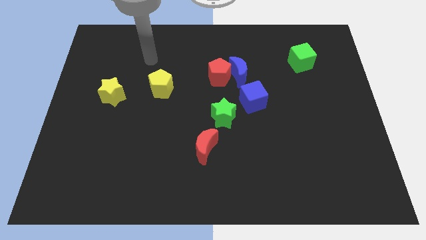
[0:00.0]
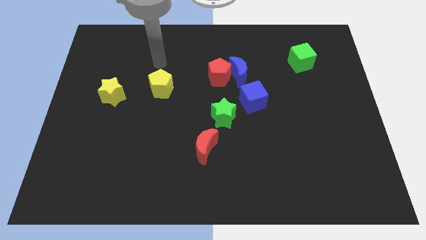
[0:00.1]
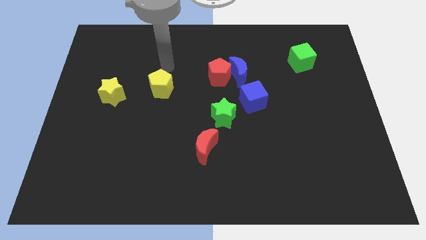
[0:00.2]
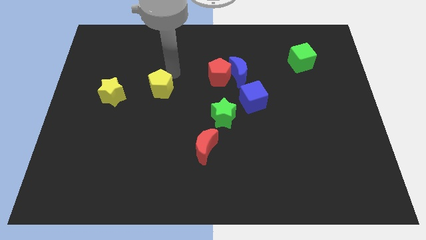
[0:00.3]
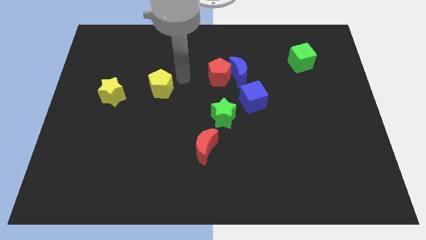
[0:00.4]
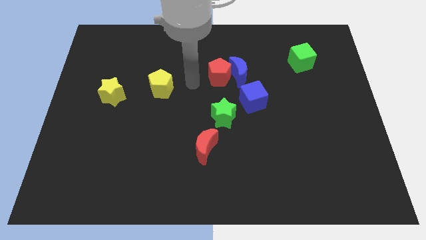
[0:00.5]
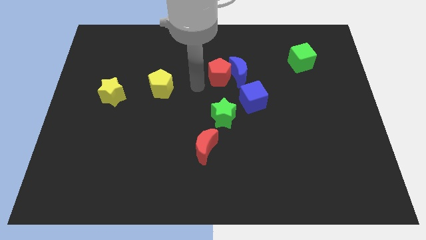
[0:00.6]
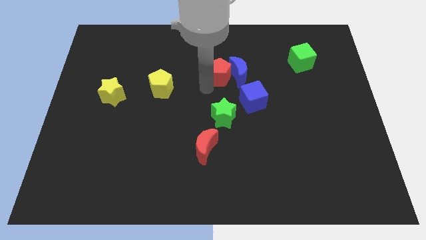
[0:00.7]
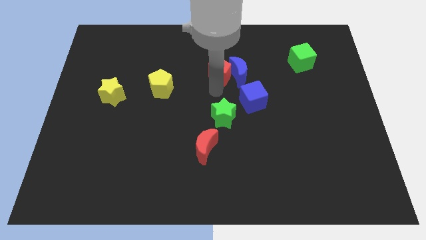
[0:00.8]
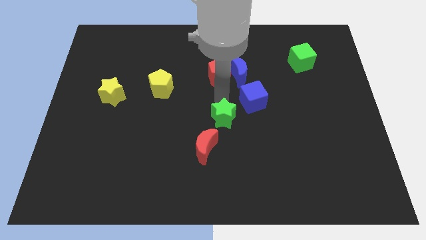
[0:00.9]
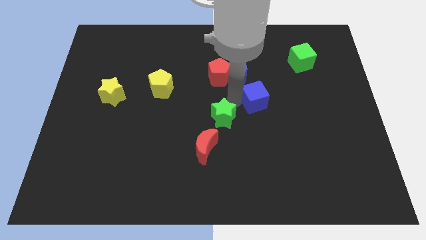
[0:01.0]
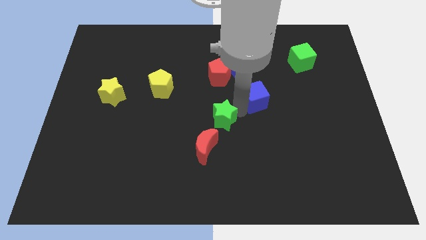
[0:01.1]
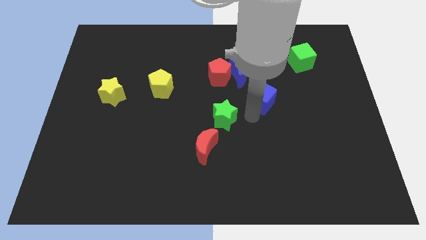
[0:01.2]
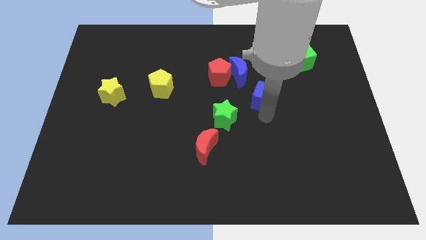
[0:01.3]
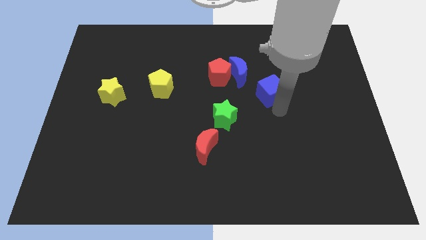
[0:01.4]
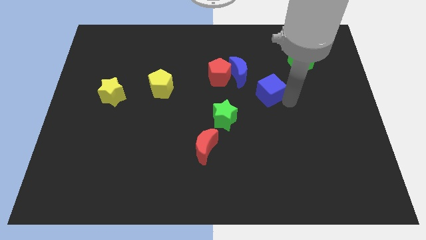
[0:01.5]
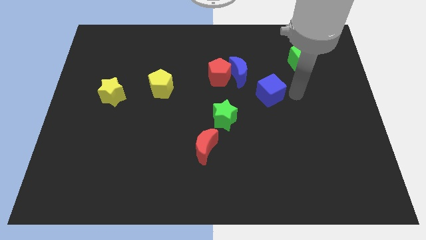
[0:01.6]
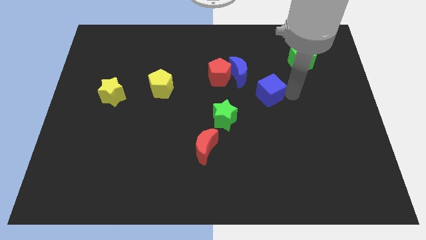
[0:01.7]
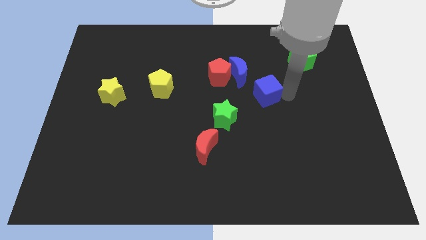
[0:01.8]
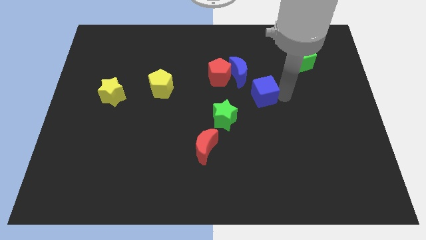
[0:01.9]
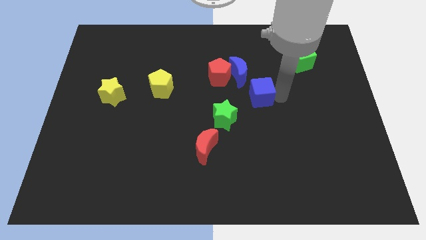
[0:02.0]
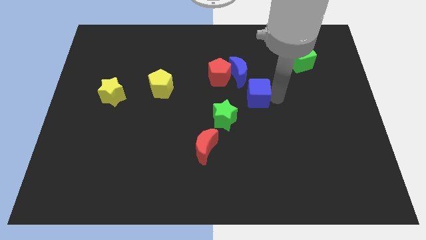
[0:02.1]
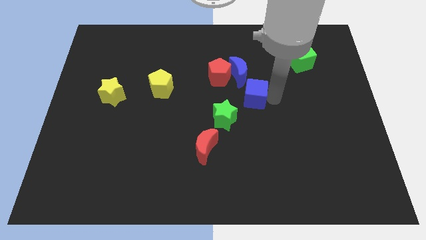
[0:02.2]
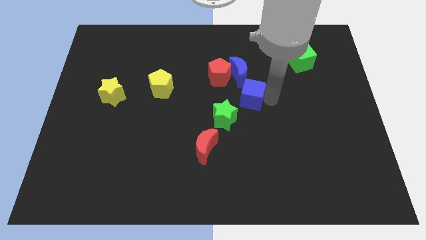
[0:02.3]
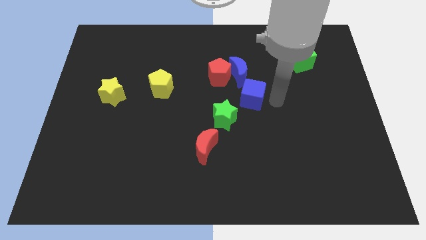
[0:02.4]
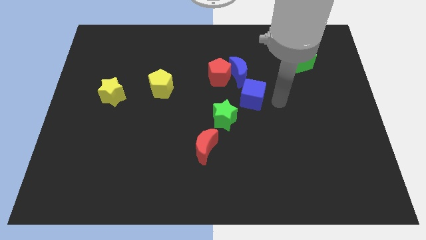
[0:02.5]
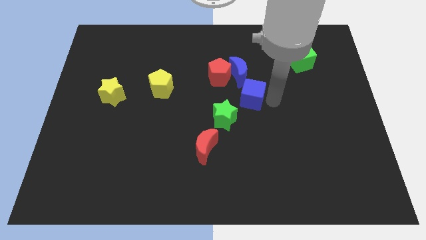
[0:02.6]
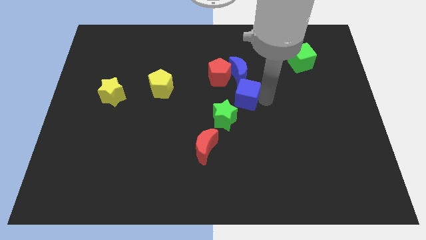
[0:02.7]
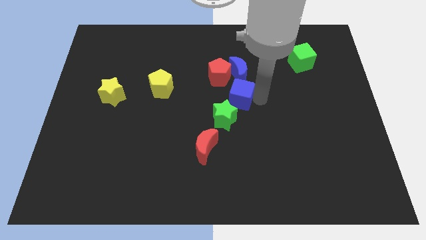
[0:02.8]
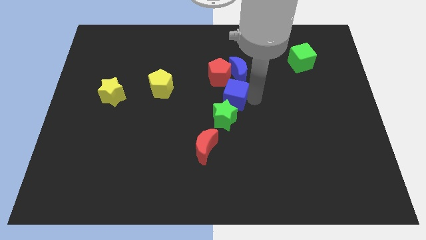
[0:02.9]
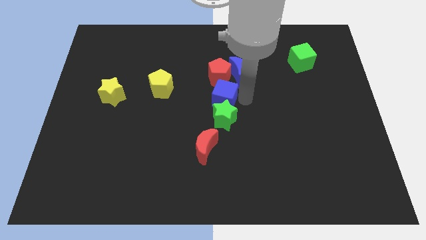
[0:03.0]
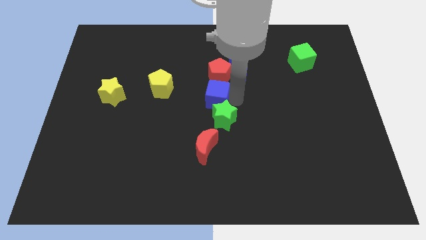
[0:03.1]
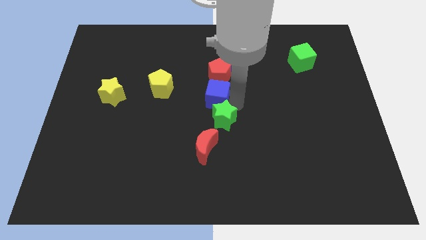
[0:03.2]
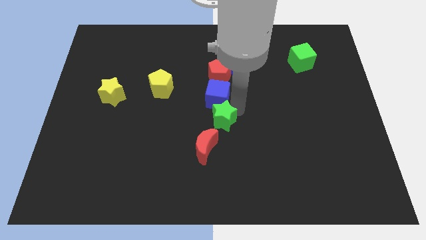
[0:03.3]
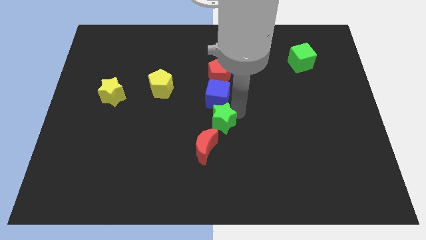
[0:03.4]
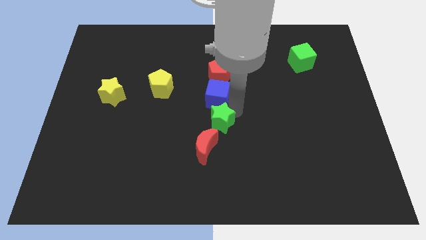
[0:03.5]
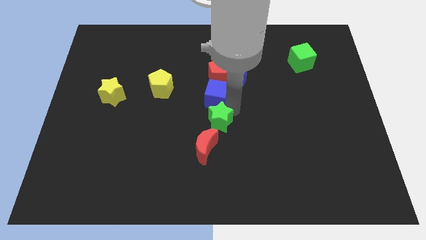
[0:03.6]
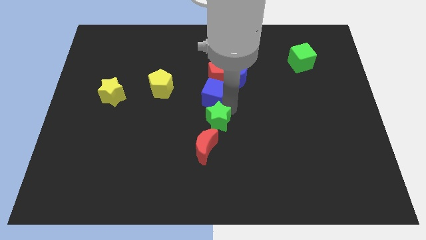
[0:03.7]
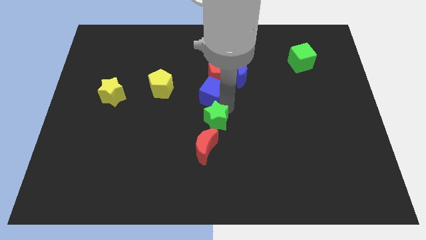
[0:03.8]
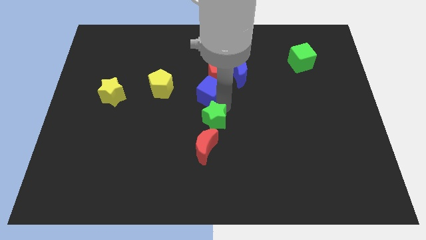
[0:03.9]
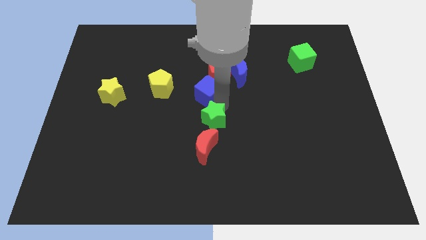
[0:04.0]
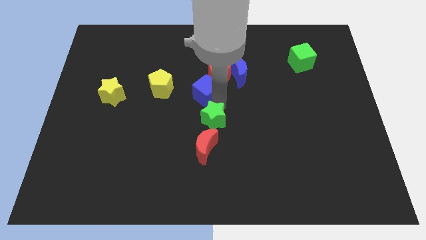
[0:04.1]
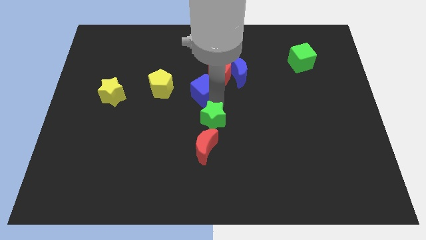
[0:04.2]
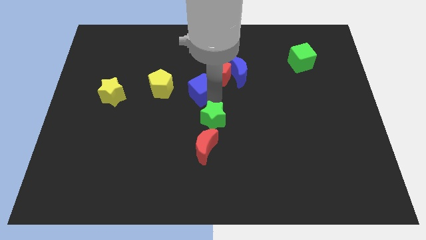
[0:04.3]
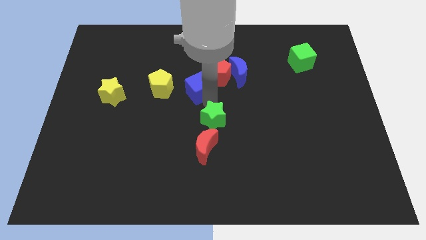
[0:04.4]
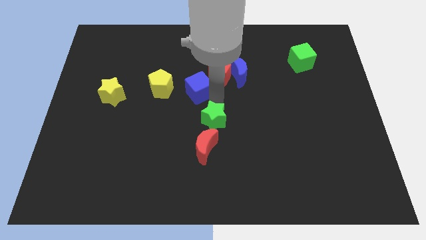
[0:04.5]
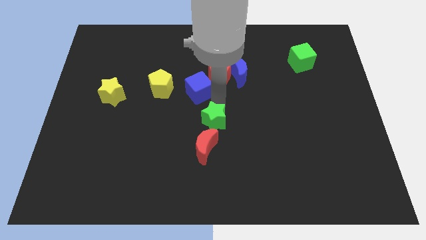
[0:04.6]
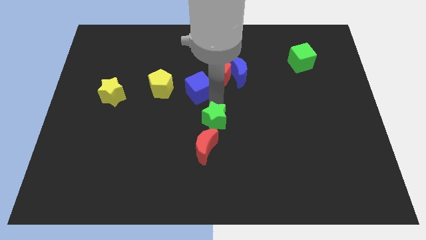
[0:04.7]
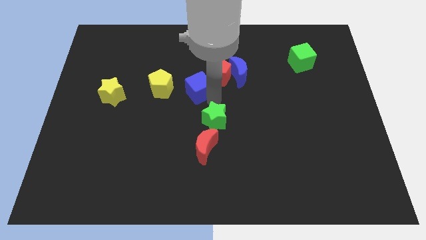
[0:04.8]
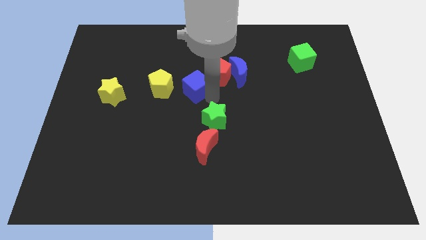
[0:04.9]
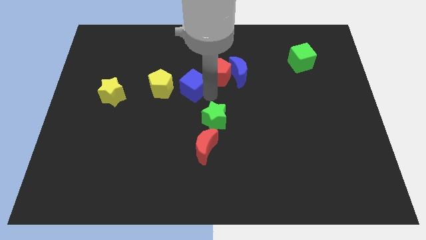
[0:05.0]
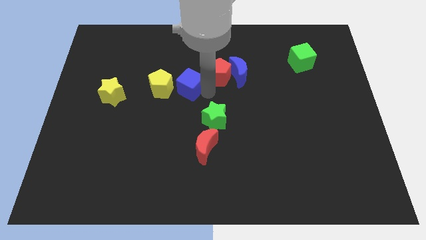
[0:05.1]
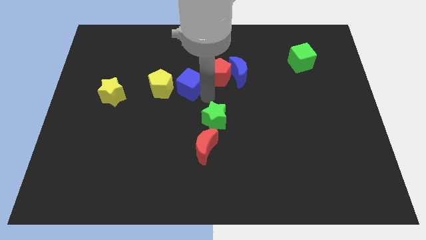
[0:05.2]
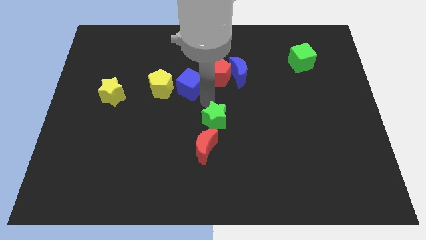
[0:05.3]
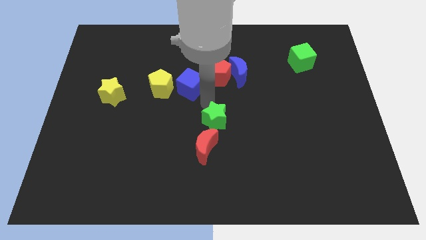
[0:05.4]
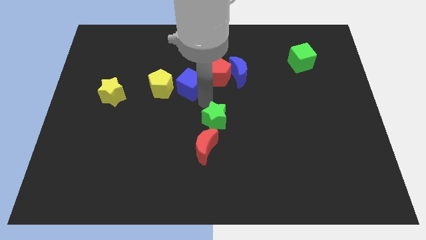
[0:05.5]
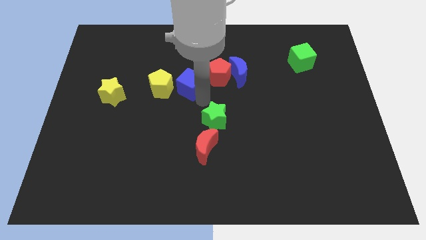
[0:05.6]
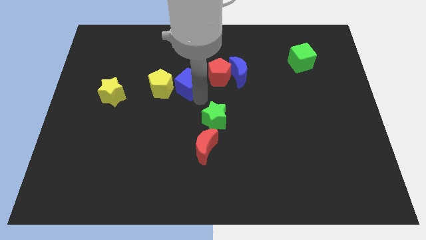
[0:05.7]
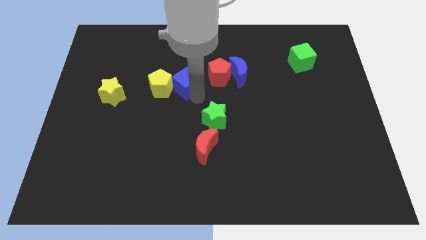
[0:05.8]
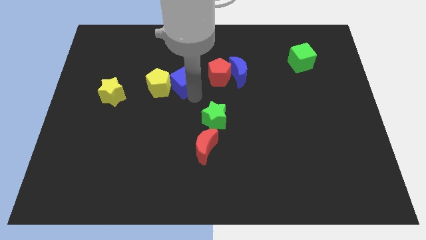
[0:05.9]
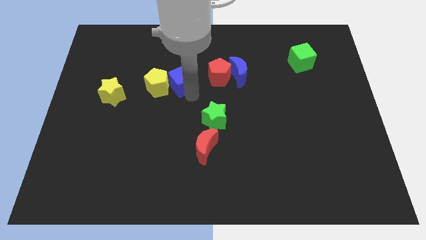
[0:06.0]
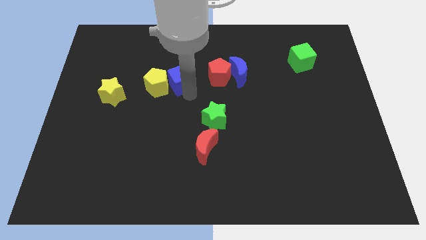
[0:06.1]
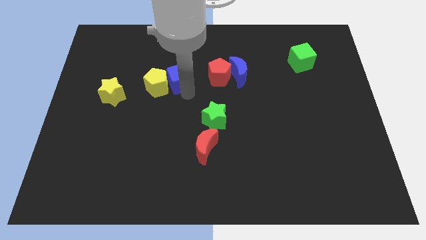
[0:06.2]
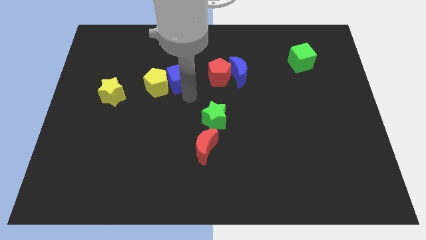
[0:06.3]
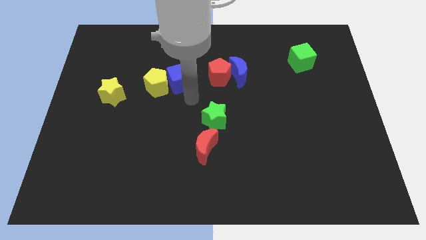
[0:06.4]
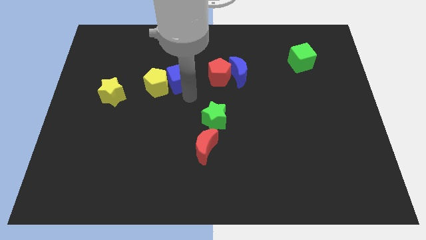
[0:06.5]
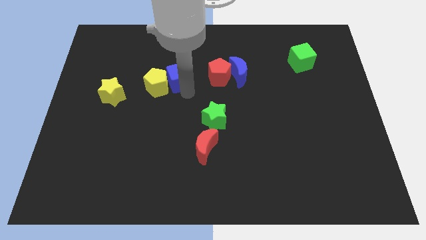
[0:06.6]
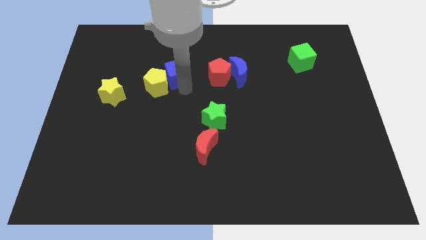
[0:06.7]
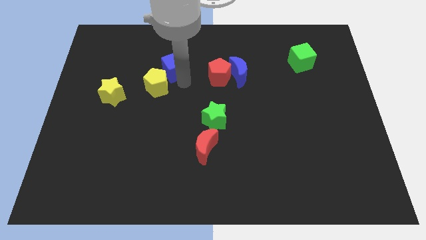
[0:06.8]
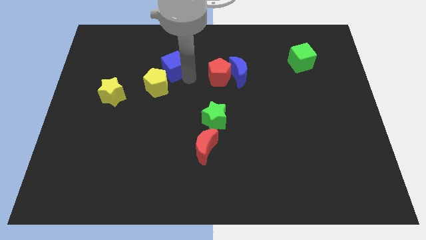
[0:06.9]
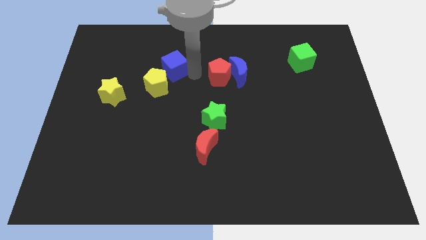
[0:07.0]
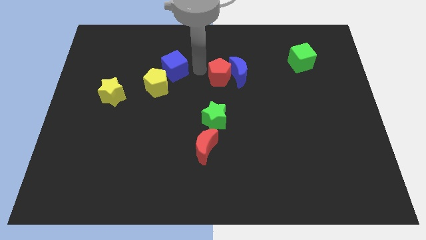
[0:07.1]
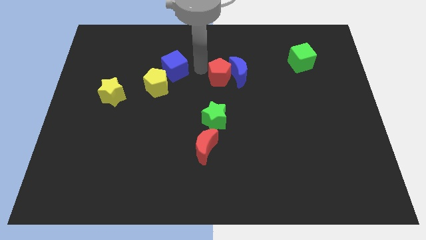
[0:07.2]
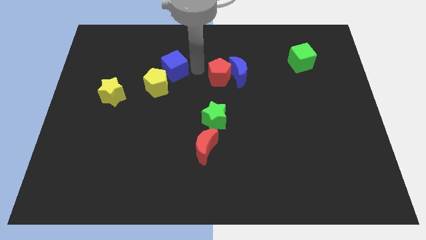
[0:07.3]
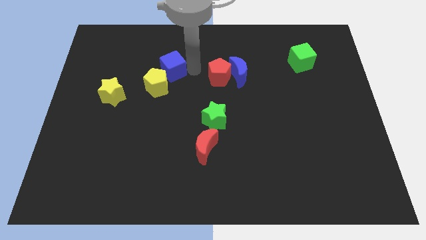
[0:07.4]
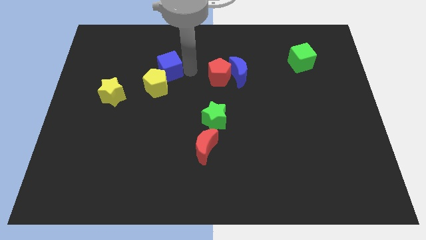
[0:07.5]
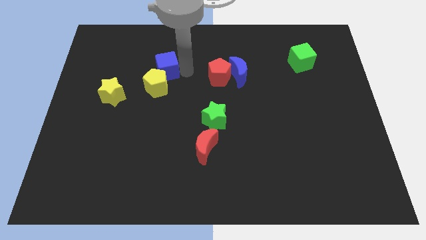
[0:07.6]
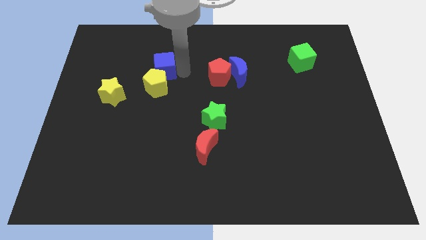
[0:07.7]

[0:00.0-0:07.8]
move the blue cube to the top left of the yellow pentagon
